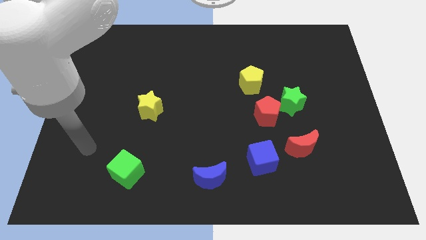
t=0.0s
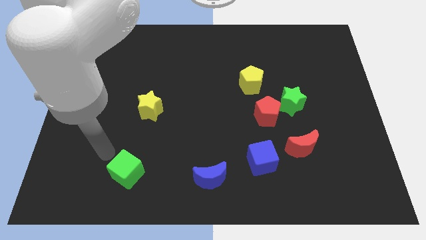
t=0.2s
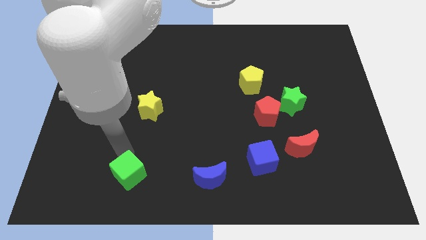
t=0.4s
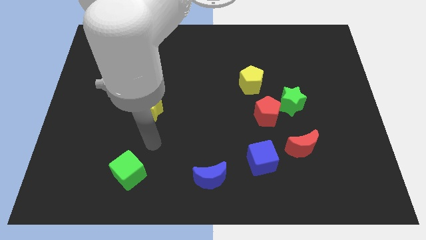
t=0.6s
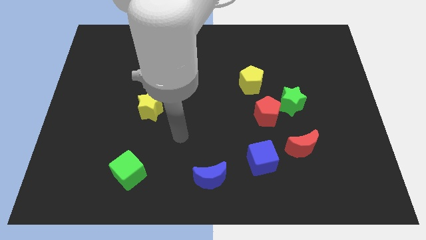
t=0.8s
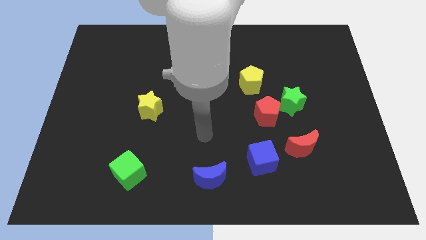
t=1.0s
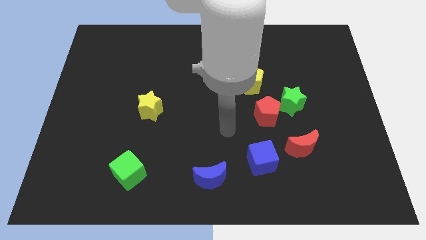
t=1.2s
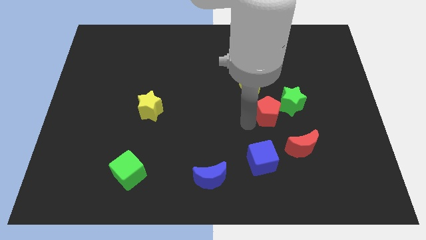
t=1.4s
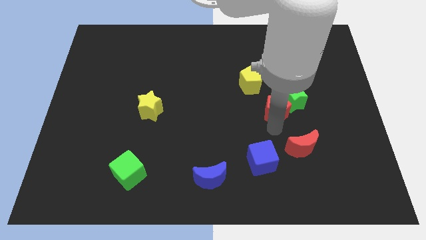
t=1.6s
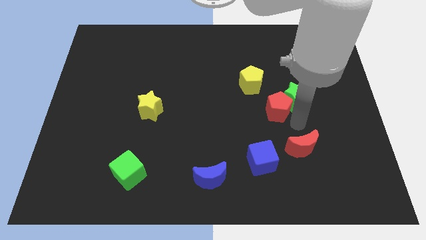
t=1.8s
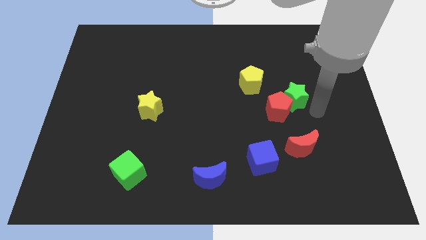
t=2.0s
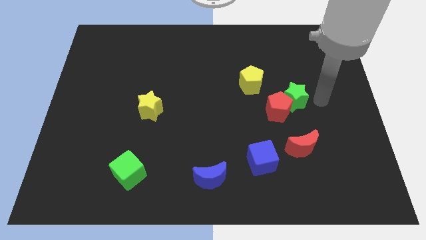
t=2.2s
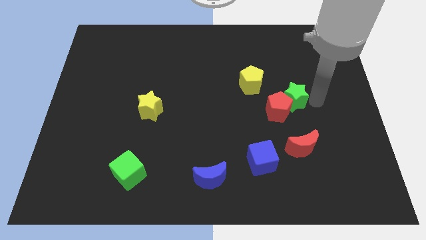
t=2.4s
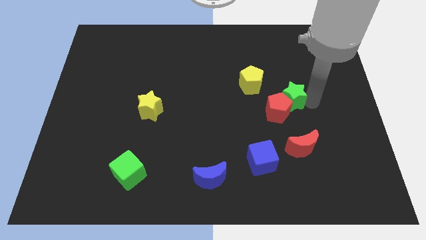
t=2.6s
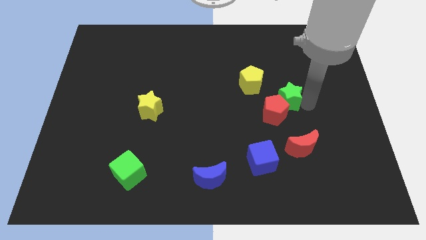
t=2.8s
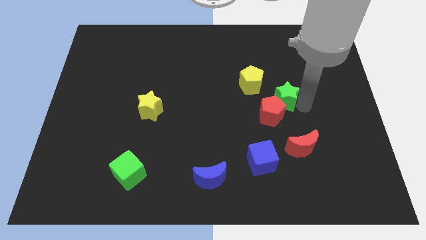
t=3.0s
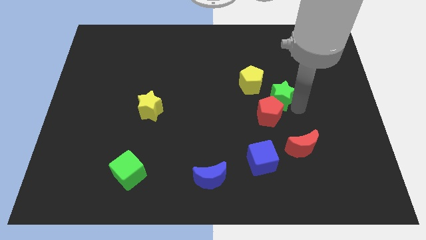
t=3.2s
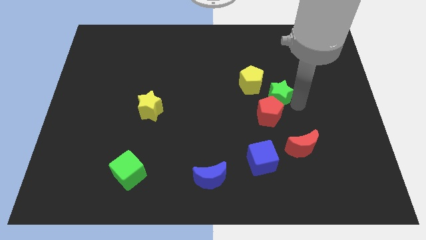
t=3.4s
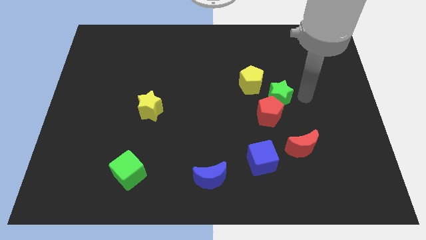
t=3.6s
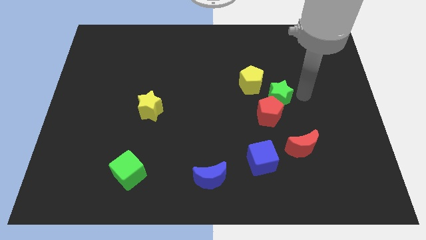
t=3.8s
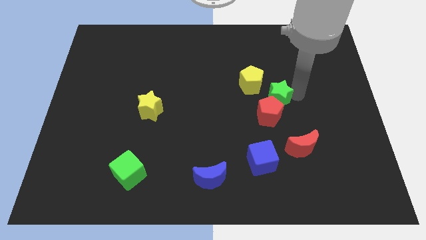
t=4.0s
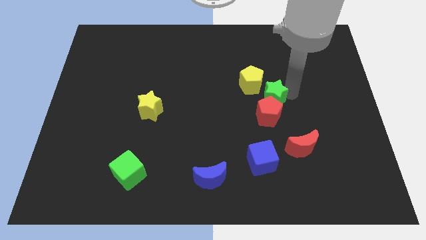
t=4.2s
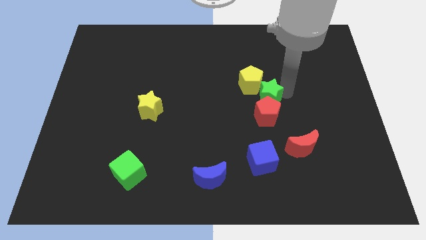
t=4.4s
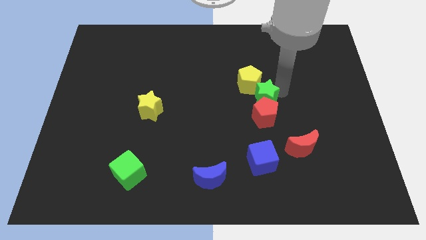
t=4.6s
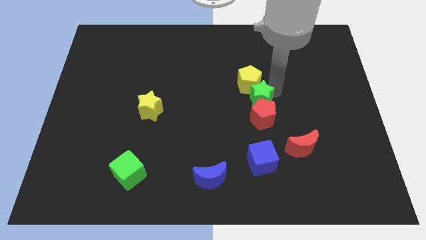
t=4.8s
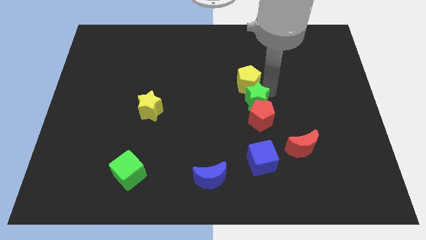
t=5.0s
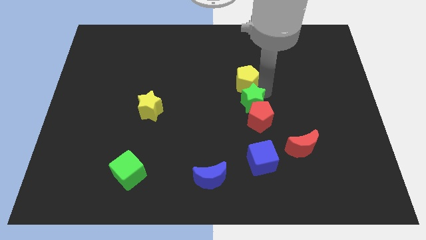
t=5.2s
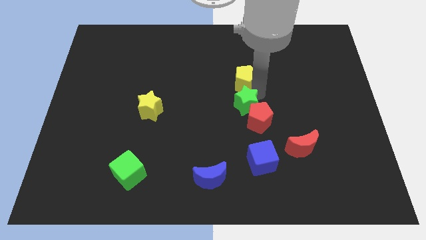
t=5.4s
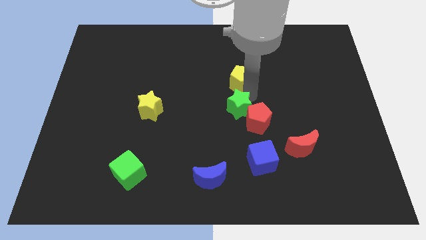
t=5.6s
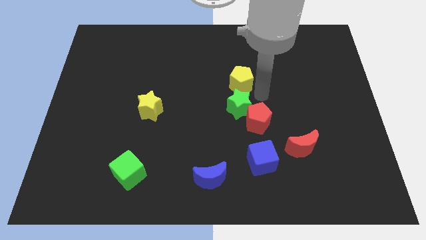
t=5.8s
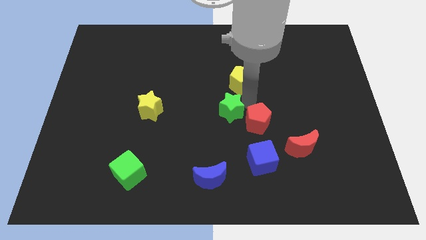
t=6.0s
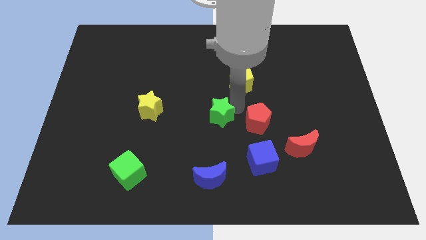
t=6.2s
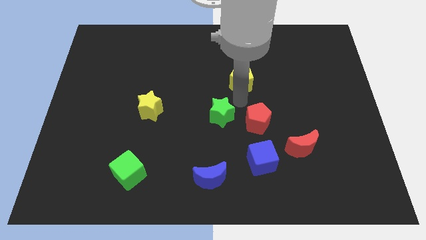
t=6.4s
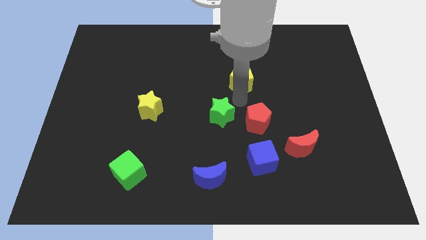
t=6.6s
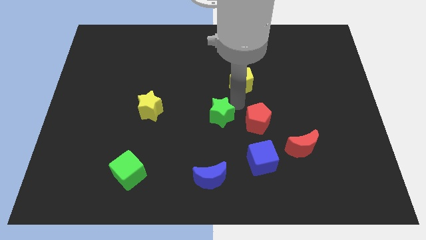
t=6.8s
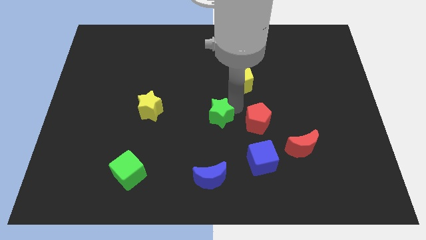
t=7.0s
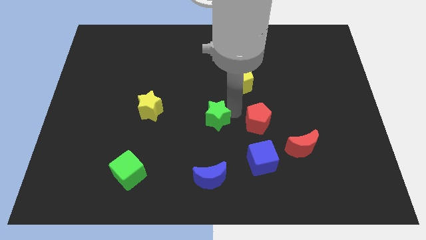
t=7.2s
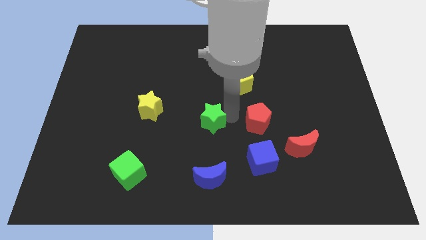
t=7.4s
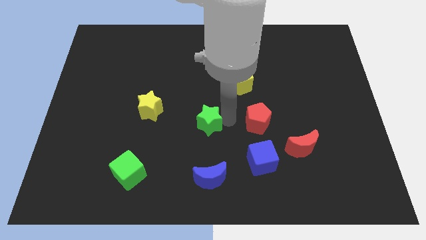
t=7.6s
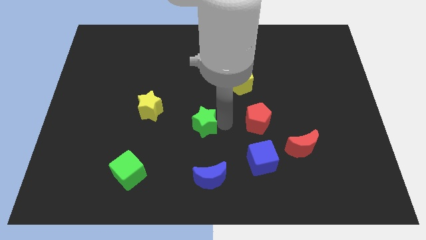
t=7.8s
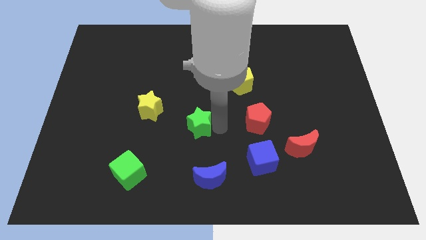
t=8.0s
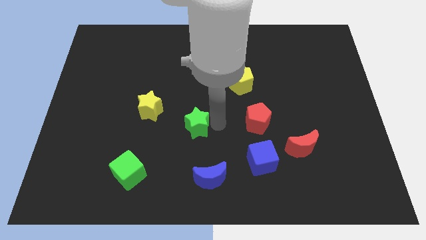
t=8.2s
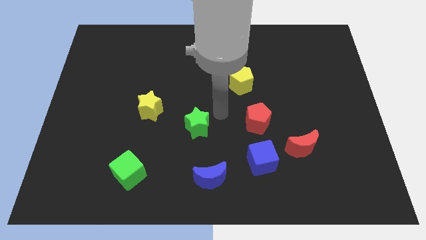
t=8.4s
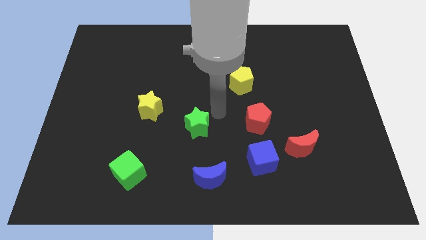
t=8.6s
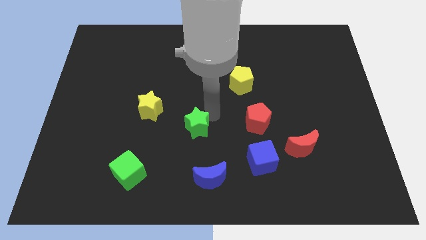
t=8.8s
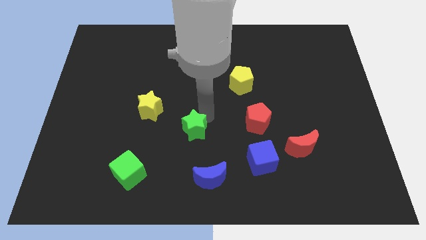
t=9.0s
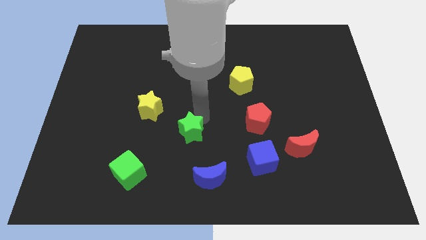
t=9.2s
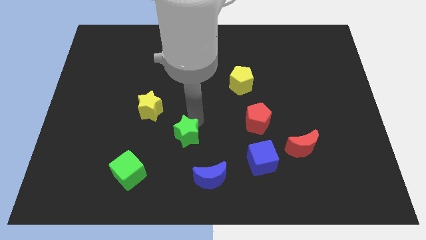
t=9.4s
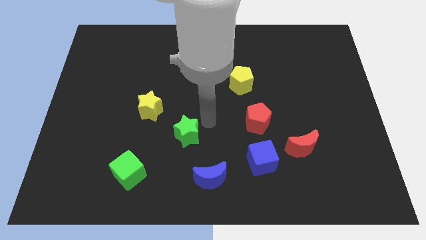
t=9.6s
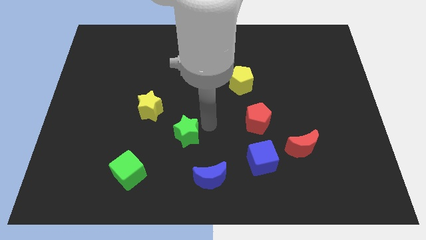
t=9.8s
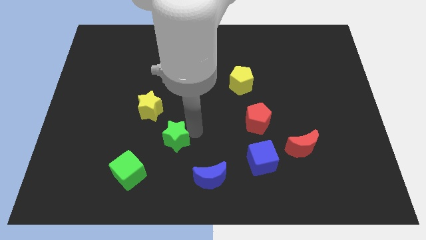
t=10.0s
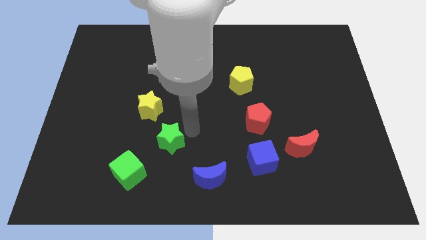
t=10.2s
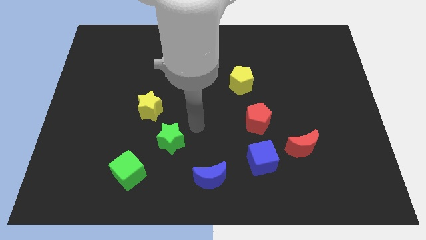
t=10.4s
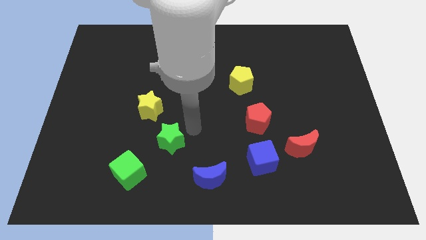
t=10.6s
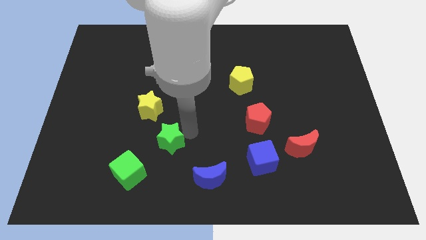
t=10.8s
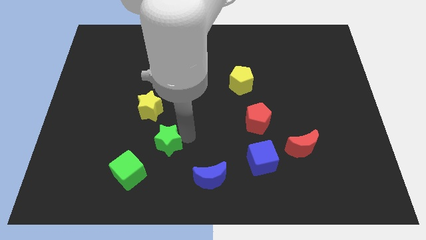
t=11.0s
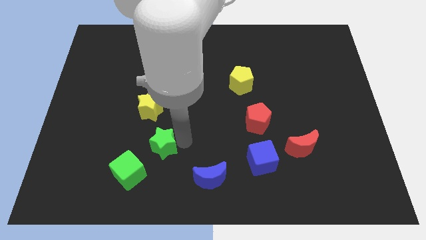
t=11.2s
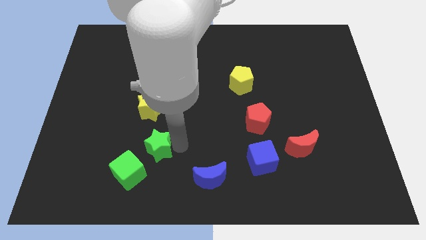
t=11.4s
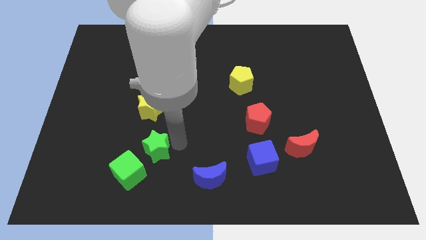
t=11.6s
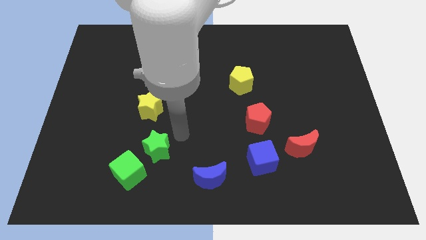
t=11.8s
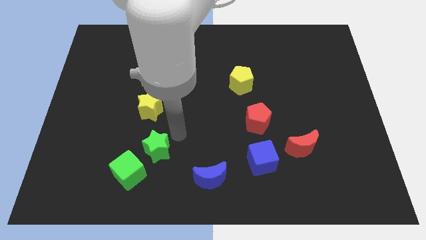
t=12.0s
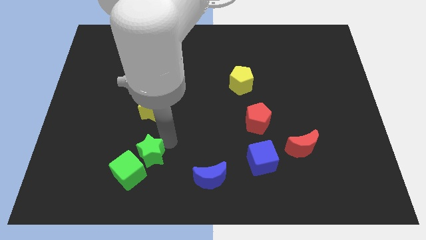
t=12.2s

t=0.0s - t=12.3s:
put the green star towards the green cube

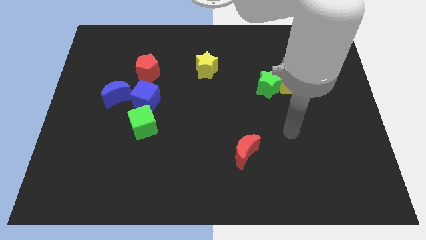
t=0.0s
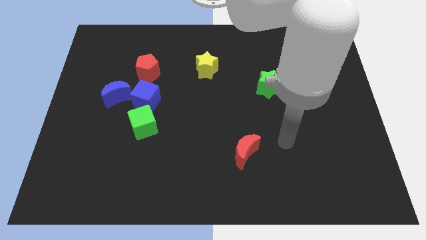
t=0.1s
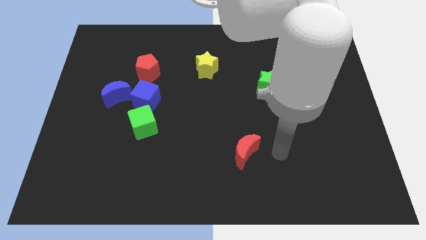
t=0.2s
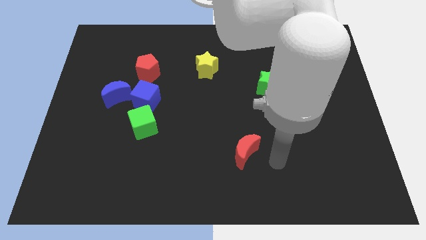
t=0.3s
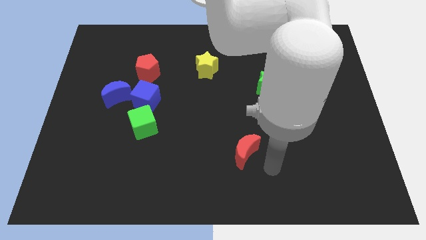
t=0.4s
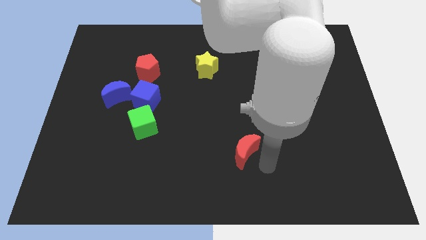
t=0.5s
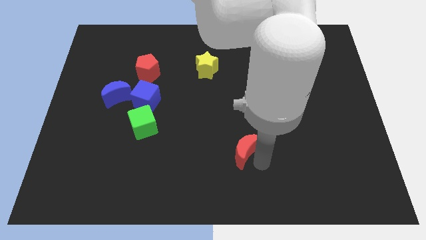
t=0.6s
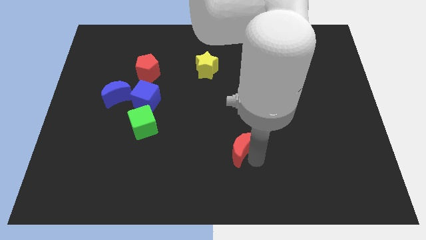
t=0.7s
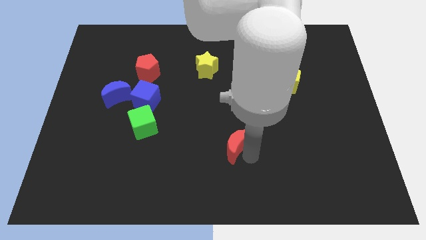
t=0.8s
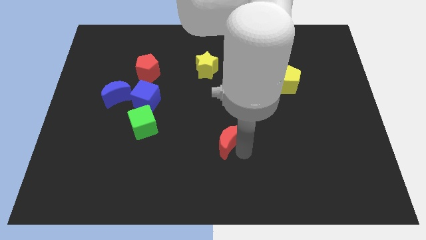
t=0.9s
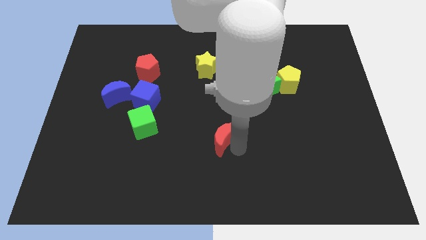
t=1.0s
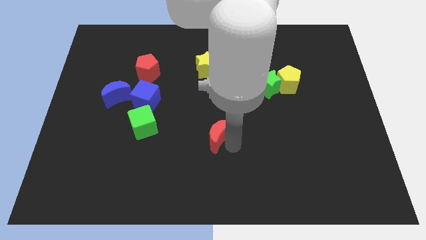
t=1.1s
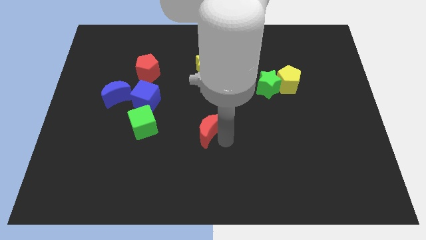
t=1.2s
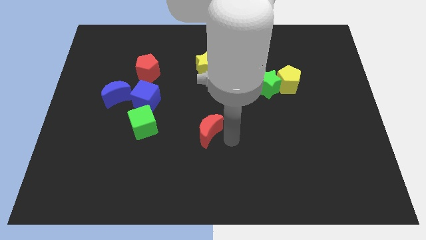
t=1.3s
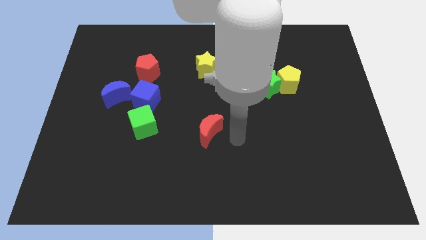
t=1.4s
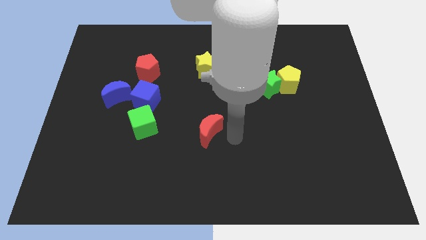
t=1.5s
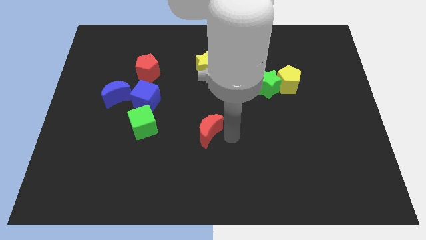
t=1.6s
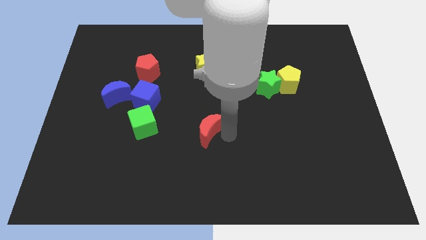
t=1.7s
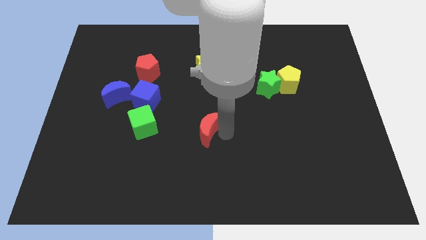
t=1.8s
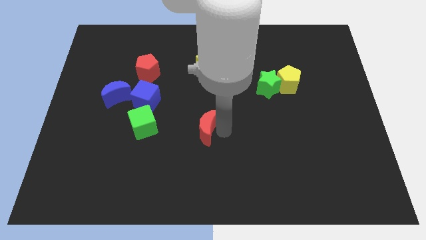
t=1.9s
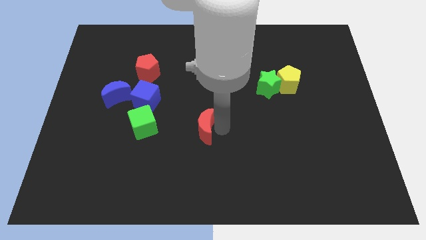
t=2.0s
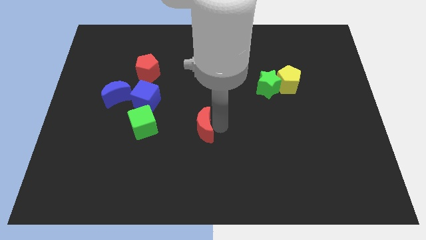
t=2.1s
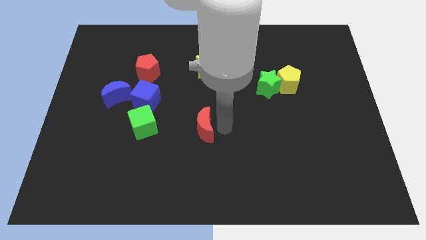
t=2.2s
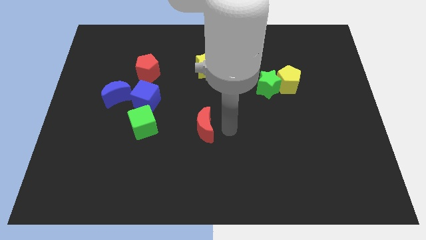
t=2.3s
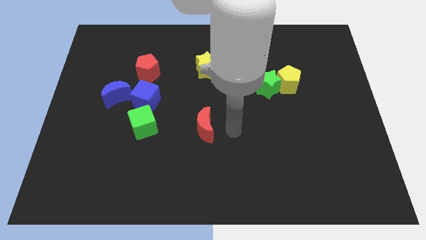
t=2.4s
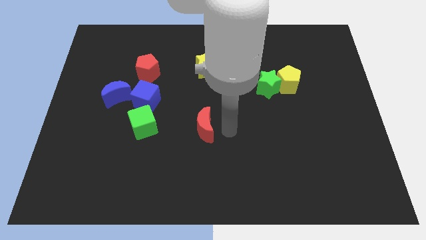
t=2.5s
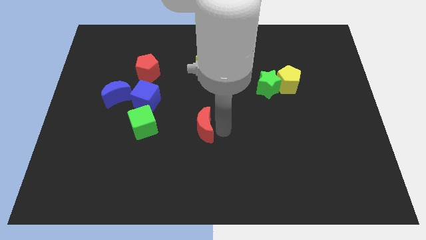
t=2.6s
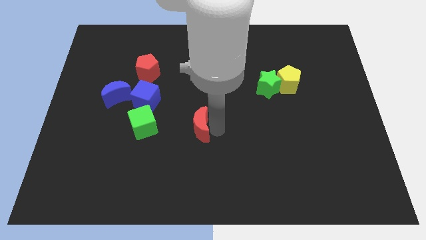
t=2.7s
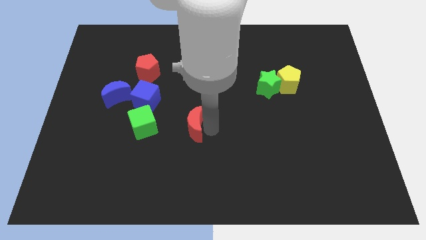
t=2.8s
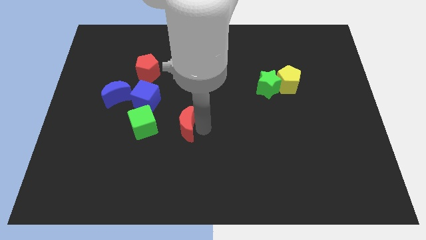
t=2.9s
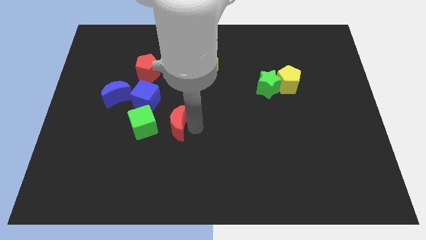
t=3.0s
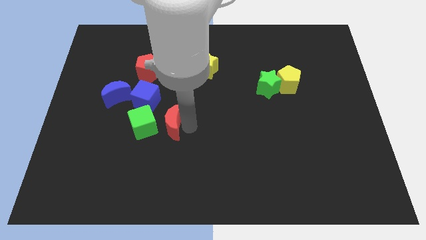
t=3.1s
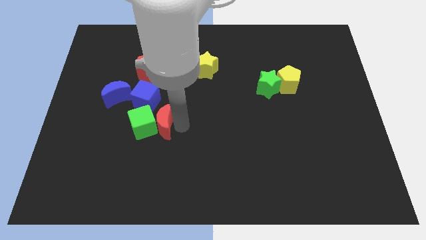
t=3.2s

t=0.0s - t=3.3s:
put the red moon to the green cube
